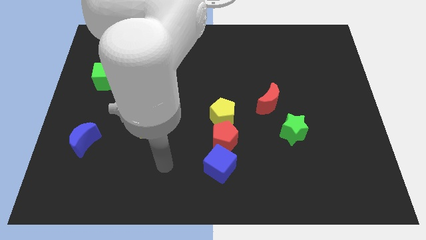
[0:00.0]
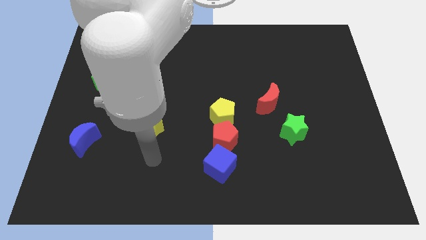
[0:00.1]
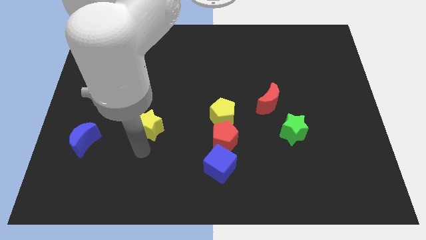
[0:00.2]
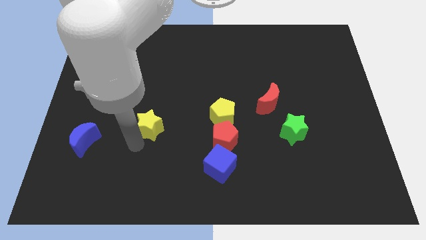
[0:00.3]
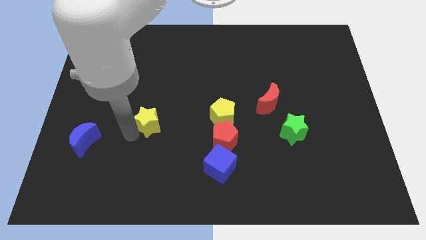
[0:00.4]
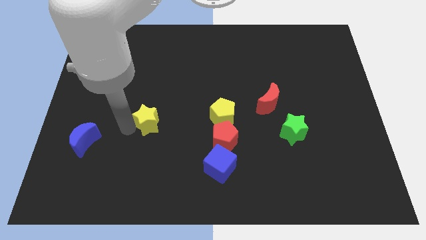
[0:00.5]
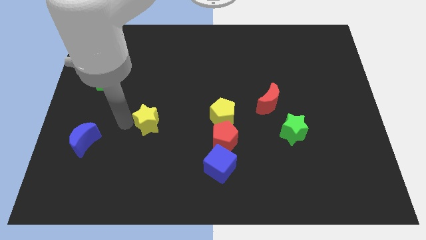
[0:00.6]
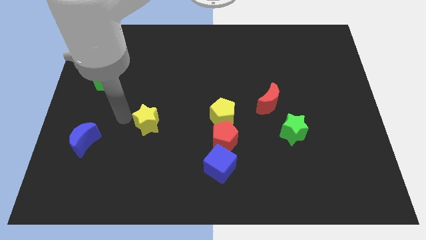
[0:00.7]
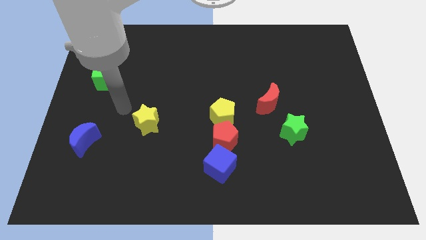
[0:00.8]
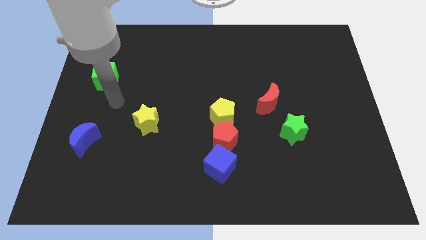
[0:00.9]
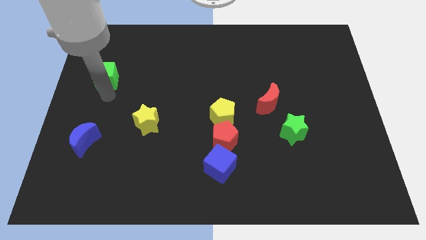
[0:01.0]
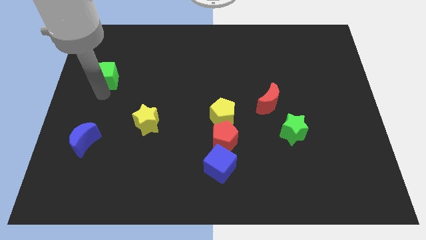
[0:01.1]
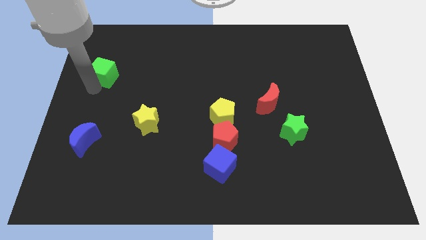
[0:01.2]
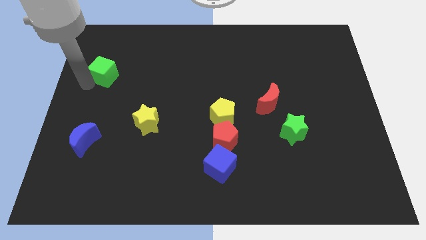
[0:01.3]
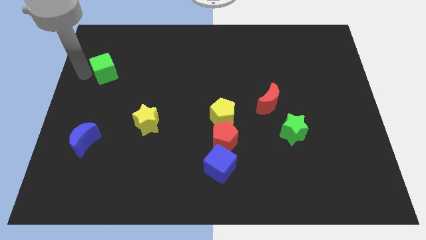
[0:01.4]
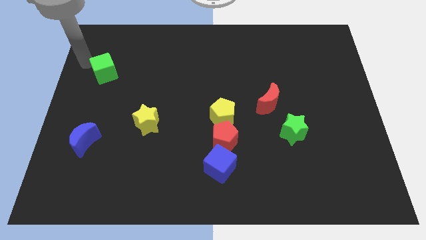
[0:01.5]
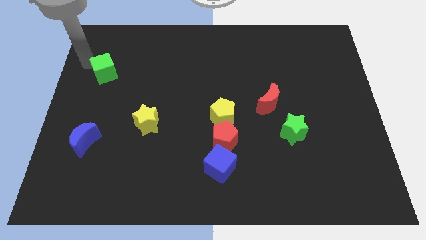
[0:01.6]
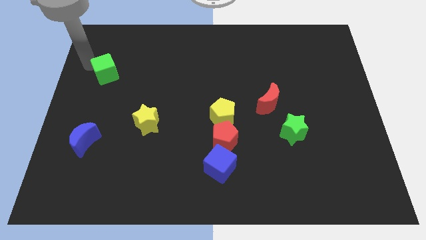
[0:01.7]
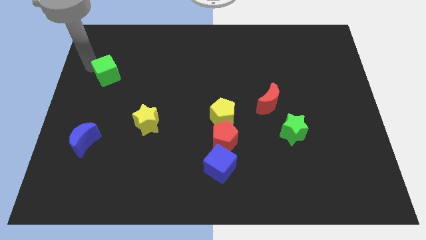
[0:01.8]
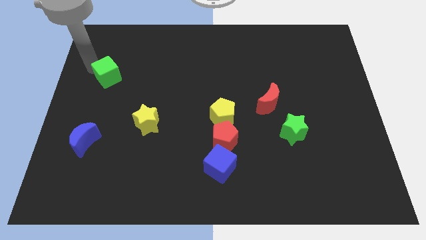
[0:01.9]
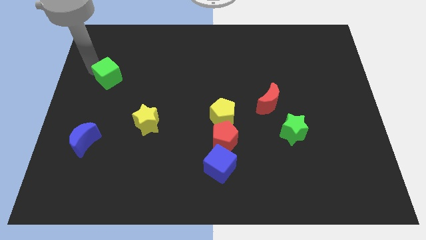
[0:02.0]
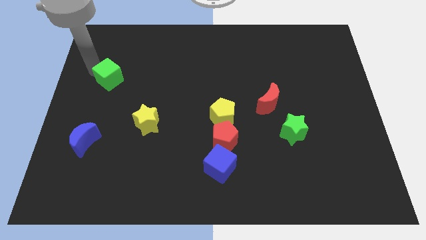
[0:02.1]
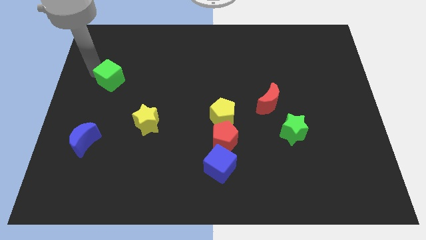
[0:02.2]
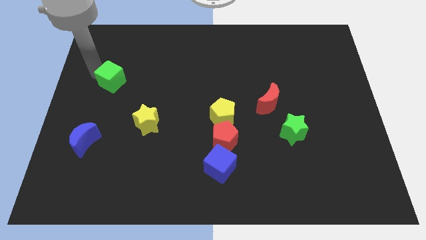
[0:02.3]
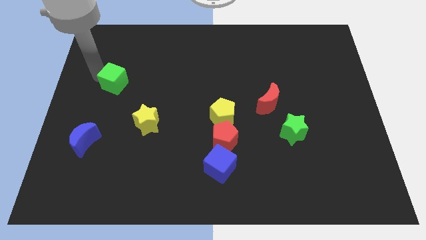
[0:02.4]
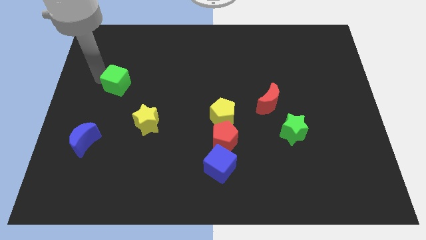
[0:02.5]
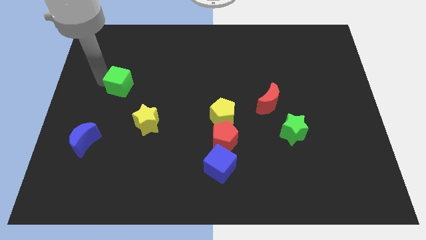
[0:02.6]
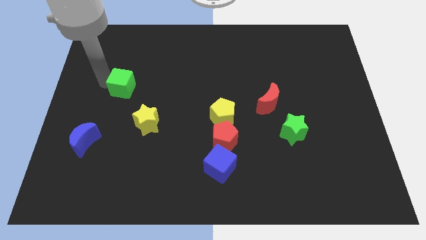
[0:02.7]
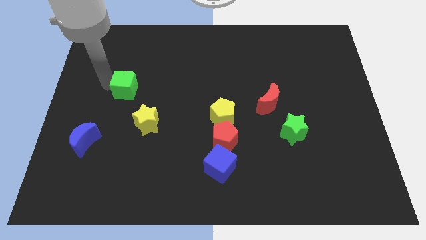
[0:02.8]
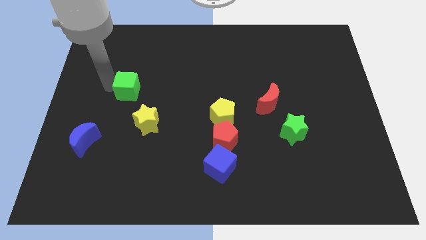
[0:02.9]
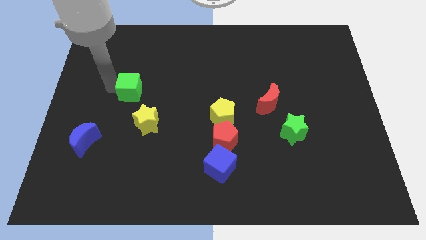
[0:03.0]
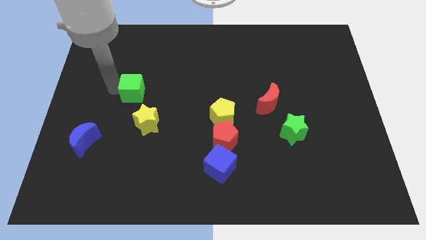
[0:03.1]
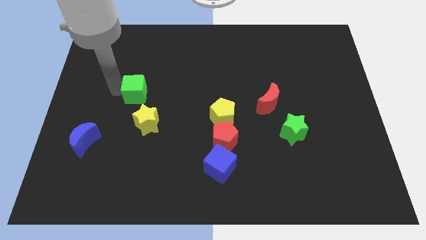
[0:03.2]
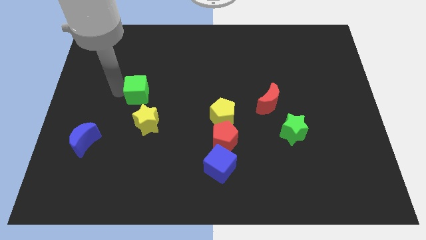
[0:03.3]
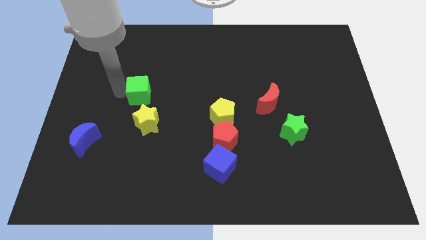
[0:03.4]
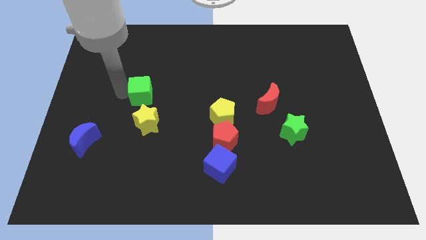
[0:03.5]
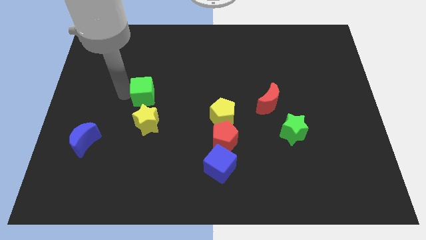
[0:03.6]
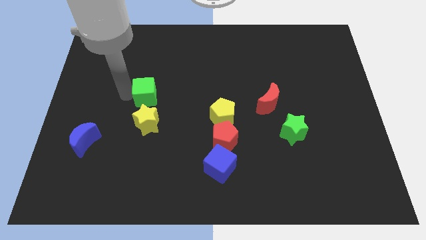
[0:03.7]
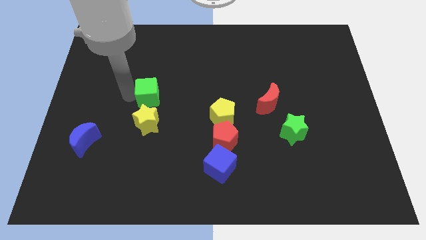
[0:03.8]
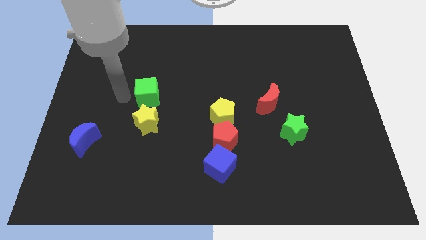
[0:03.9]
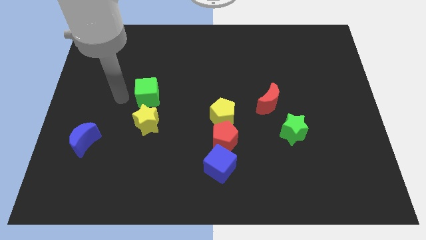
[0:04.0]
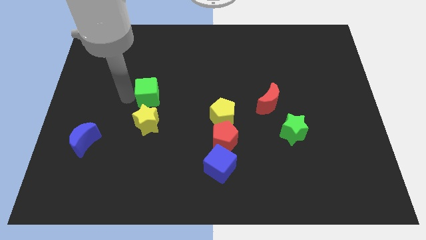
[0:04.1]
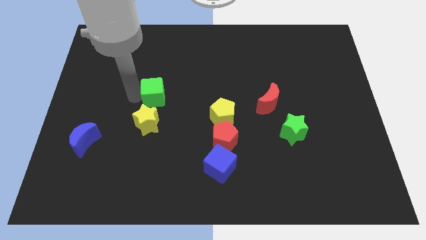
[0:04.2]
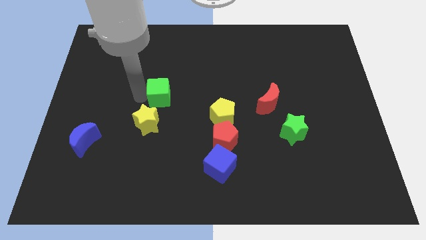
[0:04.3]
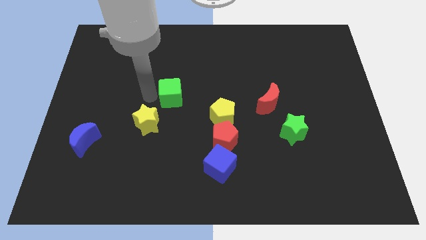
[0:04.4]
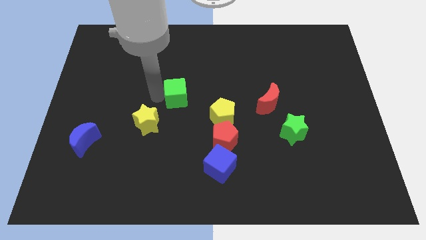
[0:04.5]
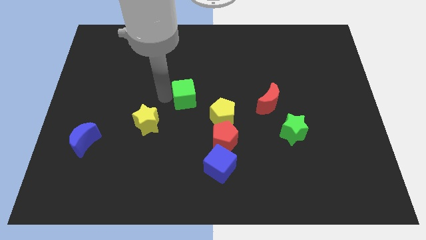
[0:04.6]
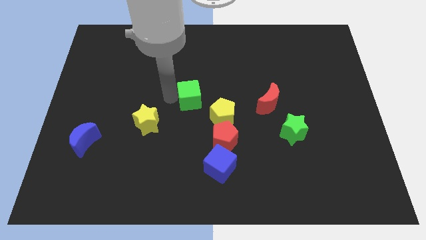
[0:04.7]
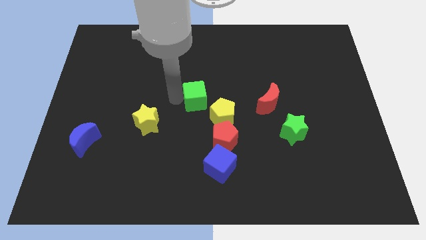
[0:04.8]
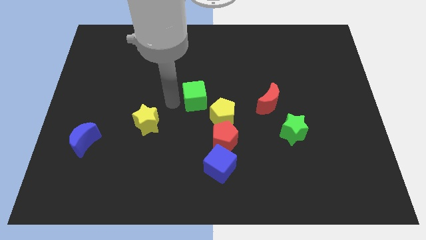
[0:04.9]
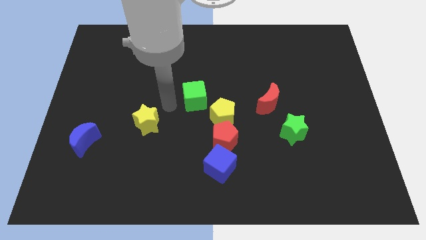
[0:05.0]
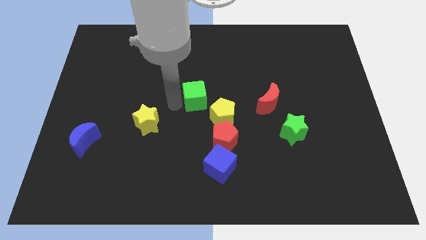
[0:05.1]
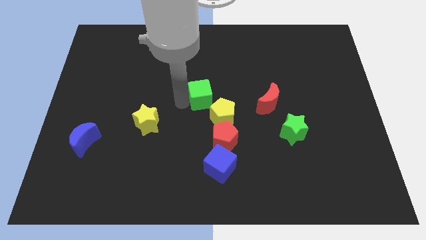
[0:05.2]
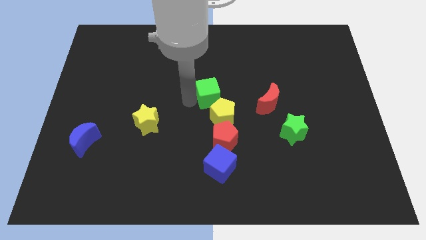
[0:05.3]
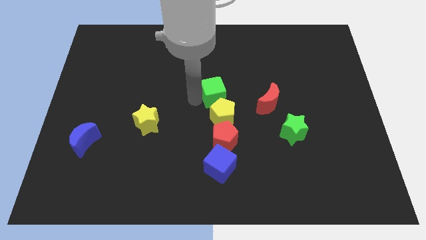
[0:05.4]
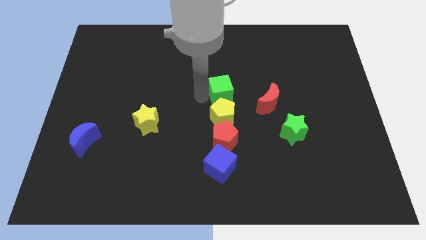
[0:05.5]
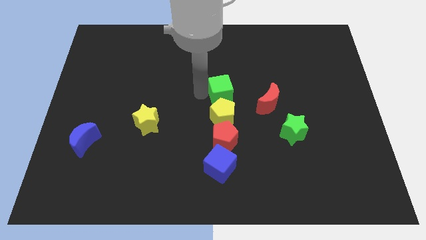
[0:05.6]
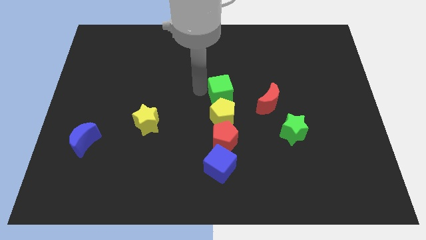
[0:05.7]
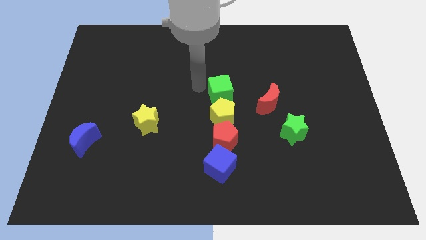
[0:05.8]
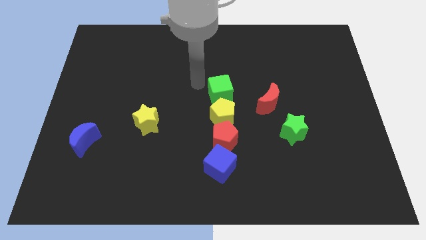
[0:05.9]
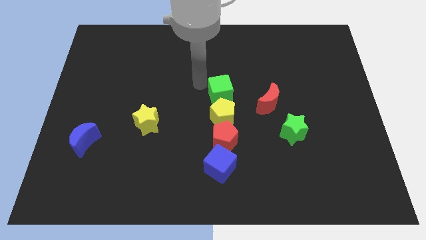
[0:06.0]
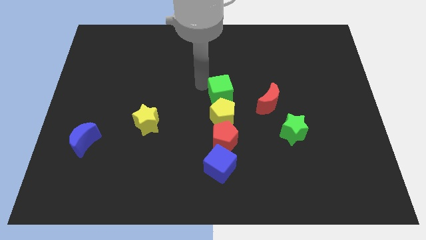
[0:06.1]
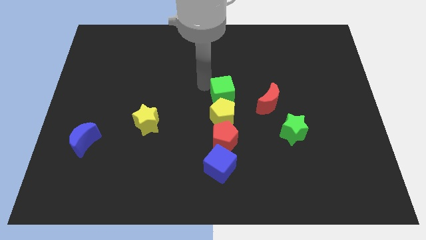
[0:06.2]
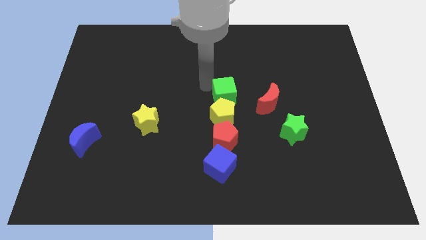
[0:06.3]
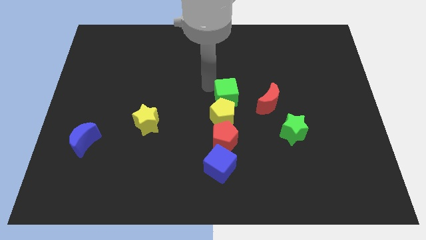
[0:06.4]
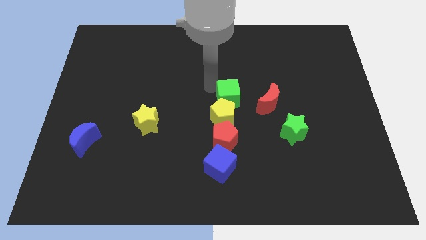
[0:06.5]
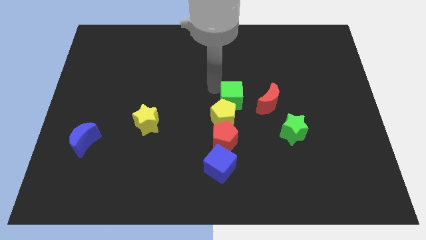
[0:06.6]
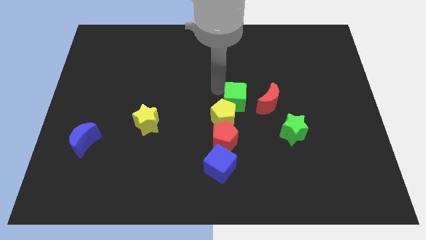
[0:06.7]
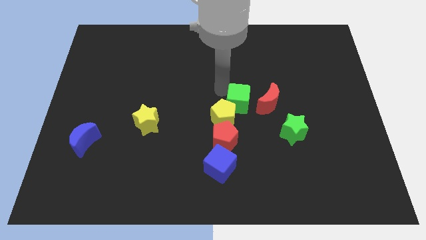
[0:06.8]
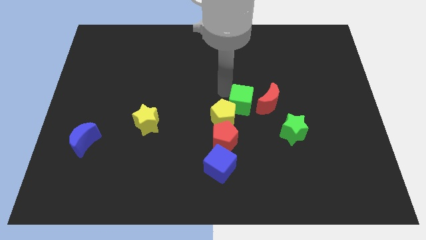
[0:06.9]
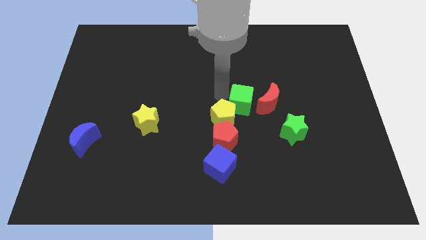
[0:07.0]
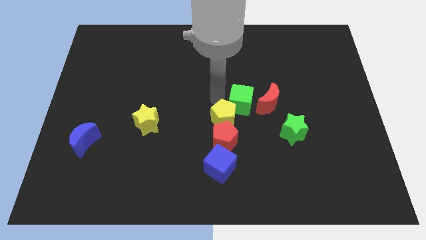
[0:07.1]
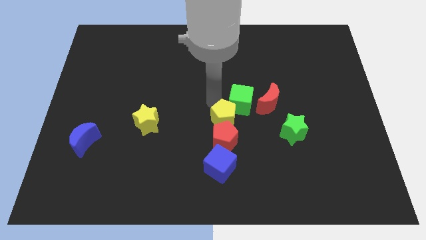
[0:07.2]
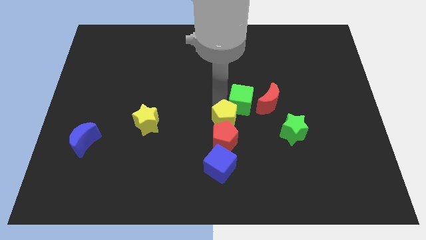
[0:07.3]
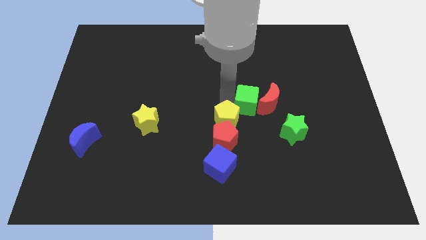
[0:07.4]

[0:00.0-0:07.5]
push the green cube towards the red moon
